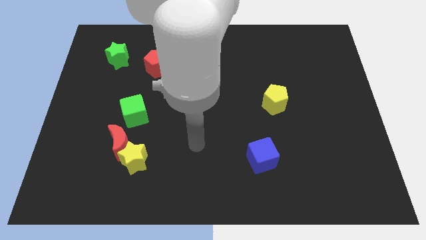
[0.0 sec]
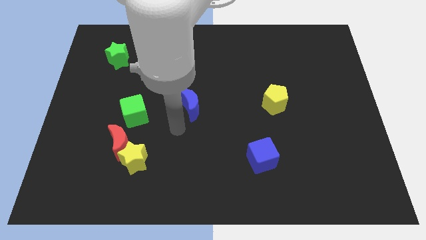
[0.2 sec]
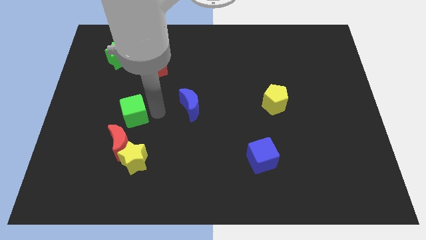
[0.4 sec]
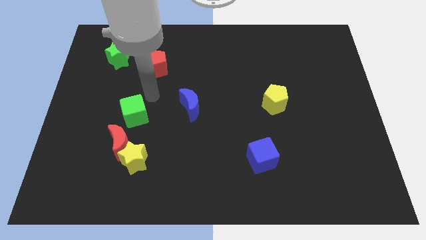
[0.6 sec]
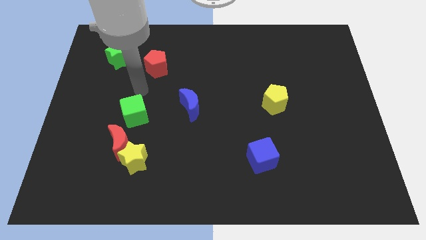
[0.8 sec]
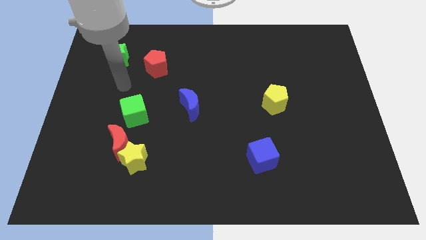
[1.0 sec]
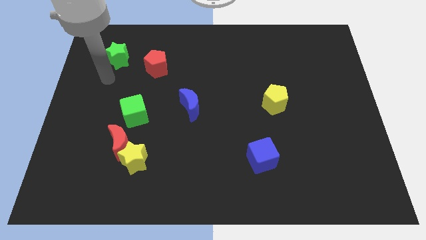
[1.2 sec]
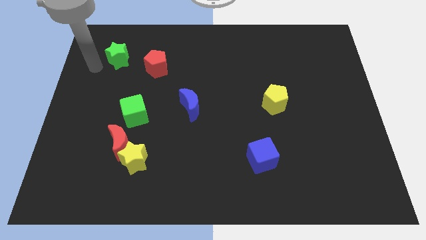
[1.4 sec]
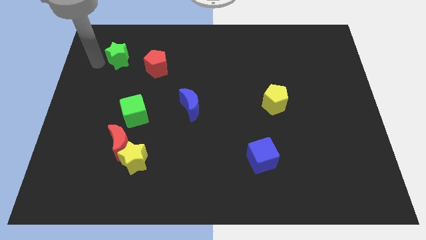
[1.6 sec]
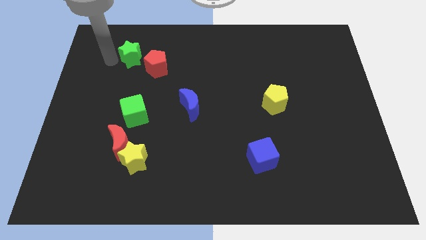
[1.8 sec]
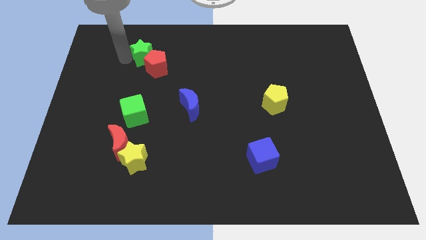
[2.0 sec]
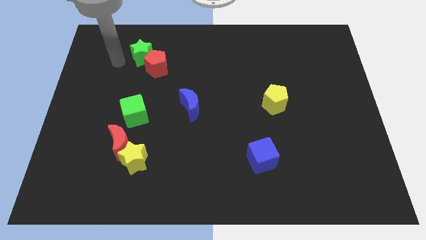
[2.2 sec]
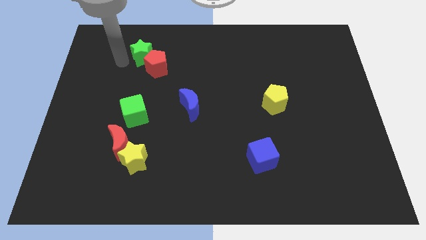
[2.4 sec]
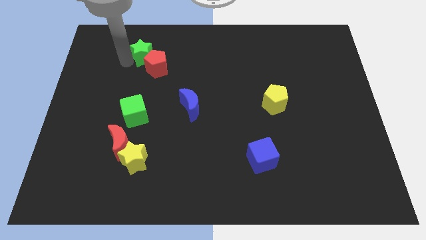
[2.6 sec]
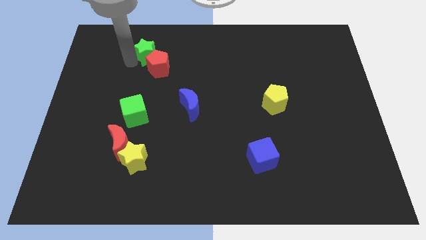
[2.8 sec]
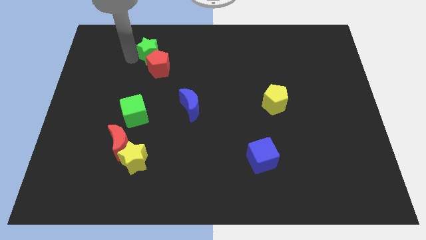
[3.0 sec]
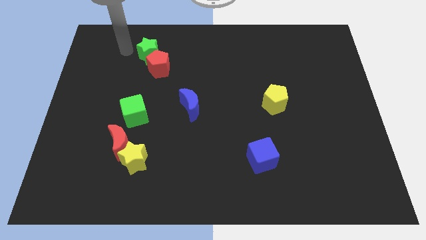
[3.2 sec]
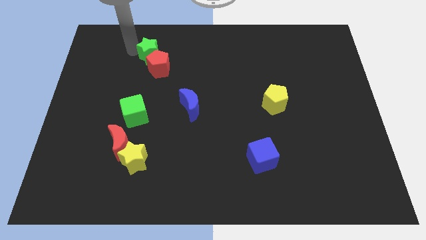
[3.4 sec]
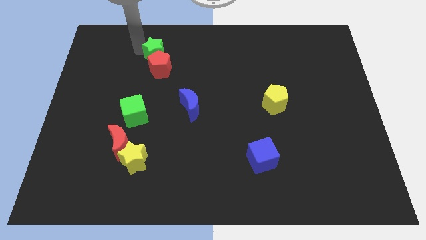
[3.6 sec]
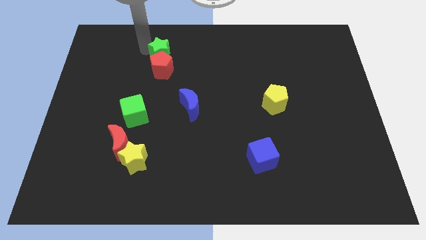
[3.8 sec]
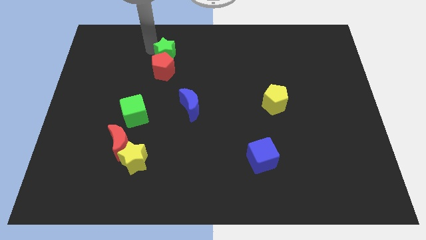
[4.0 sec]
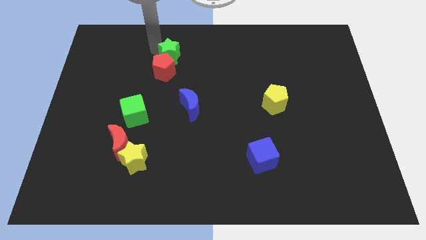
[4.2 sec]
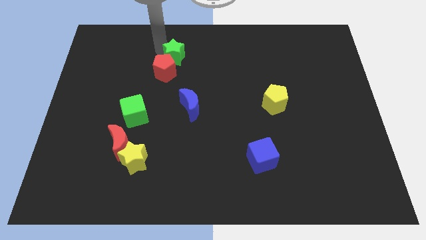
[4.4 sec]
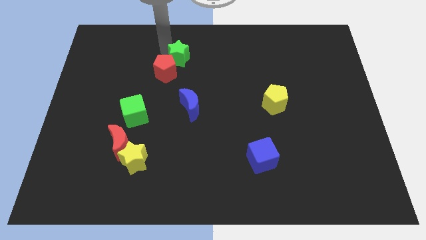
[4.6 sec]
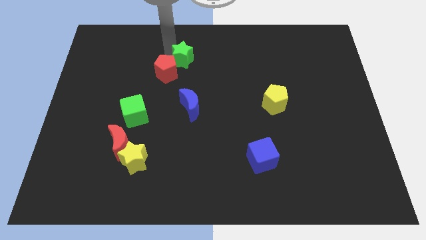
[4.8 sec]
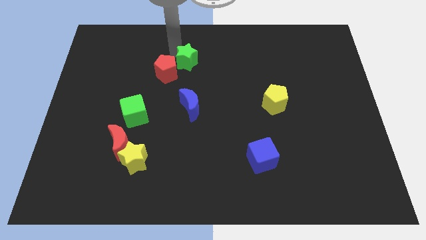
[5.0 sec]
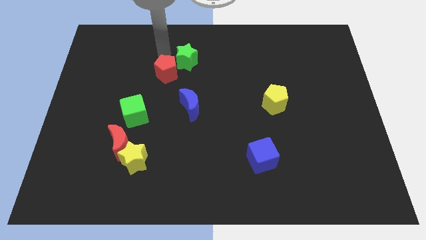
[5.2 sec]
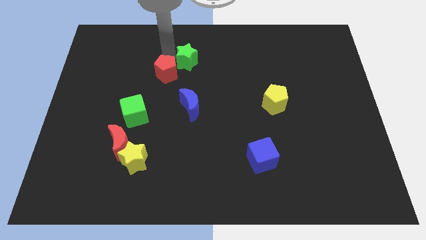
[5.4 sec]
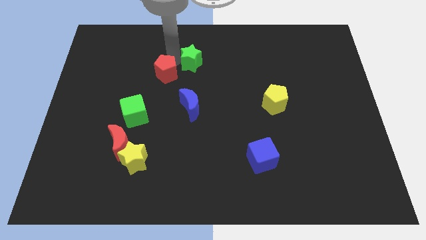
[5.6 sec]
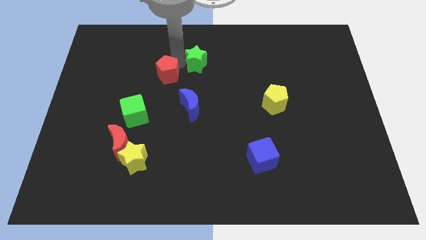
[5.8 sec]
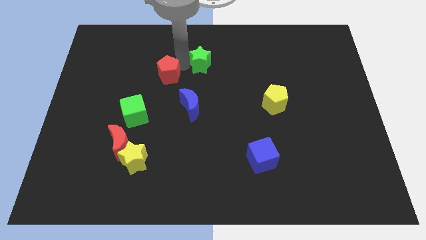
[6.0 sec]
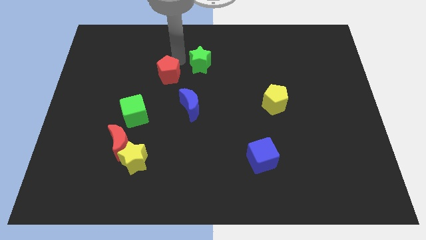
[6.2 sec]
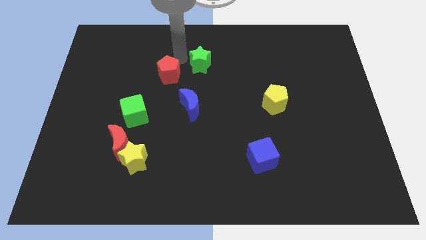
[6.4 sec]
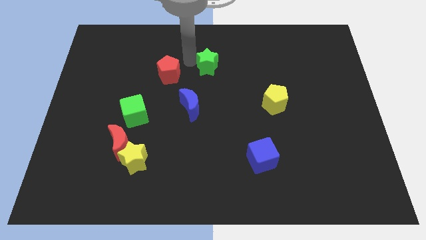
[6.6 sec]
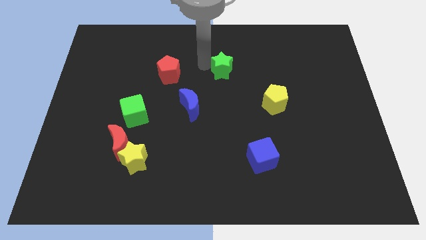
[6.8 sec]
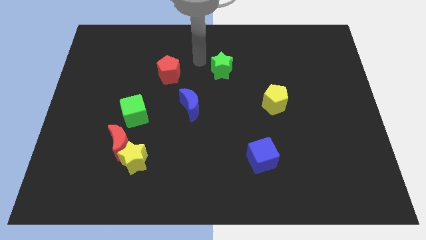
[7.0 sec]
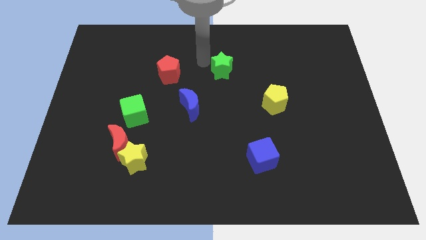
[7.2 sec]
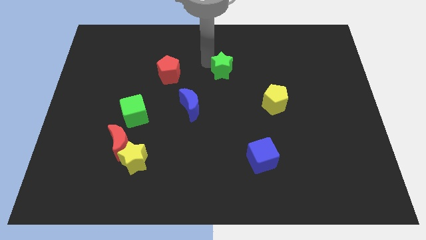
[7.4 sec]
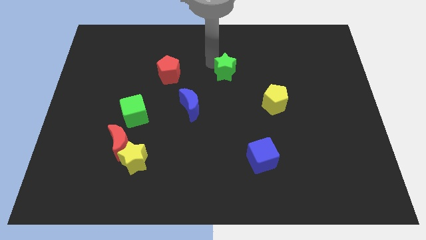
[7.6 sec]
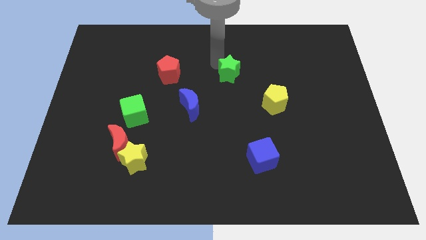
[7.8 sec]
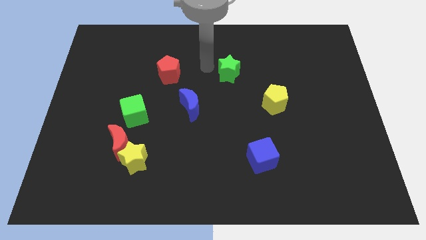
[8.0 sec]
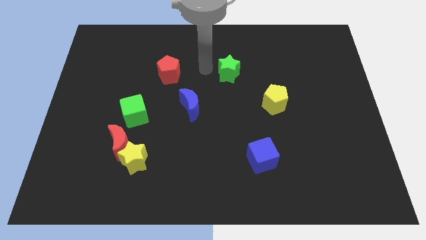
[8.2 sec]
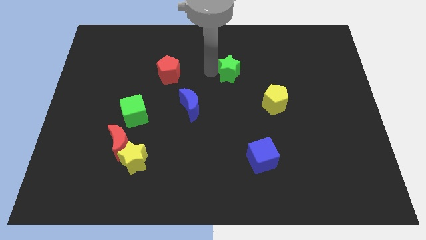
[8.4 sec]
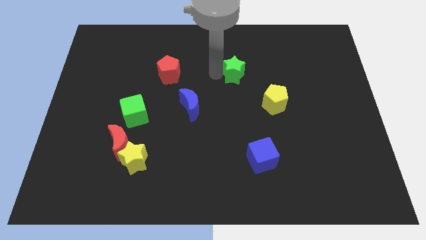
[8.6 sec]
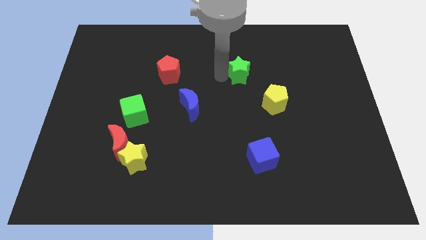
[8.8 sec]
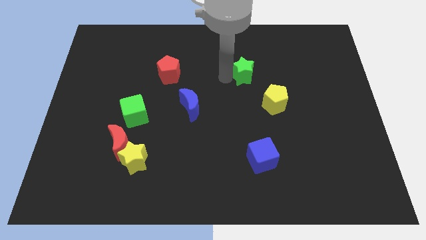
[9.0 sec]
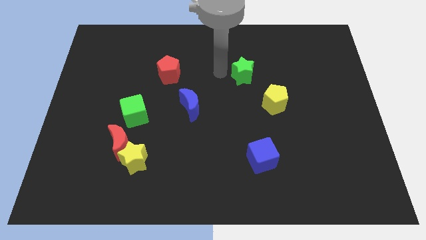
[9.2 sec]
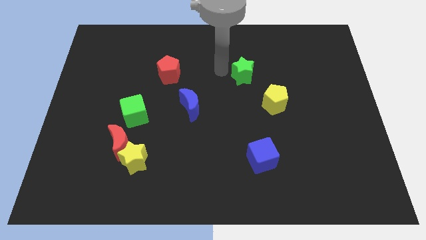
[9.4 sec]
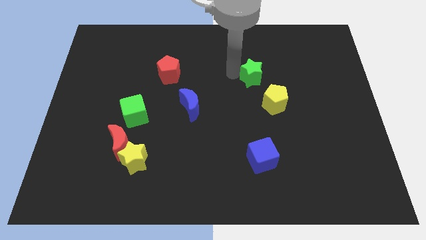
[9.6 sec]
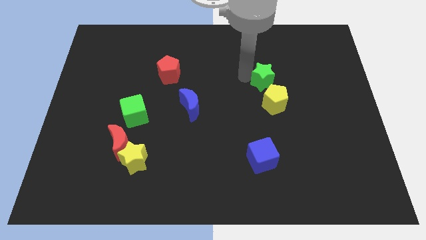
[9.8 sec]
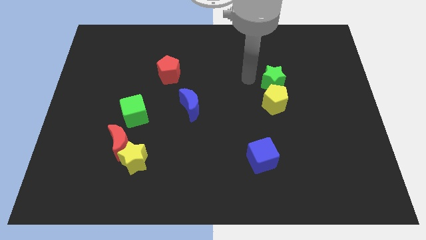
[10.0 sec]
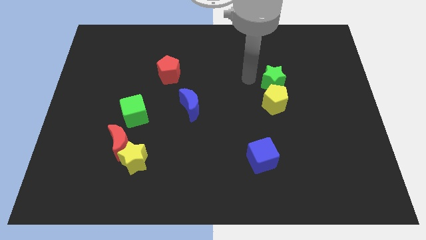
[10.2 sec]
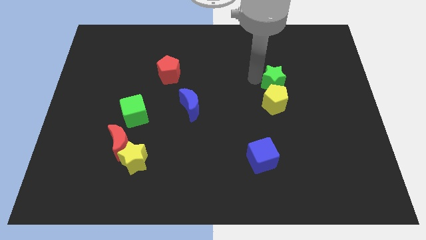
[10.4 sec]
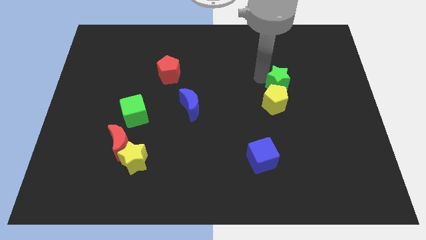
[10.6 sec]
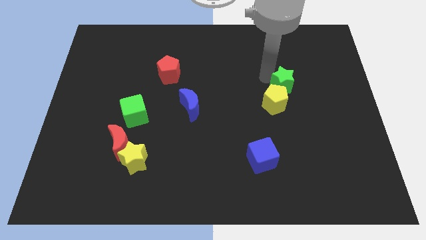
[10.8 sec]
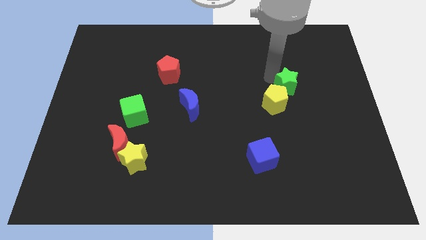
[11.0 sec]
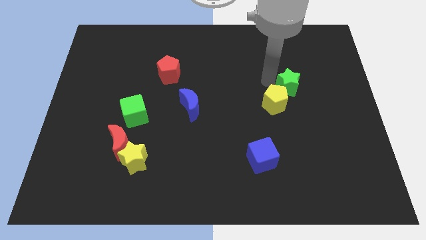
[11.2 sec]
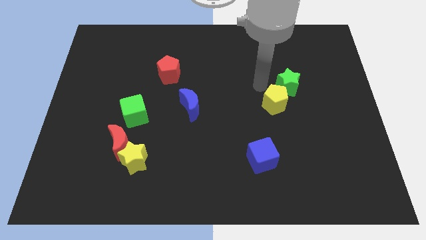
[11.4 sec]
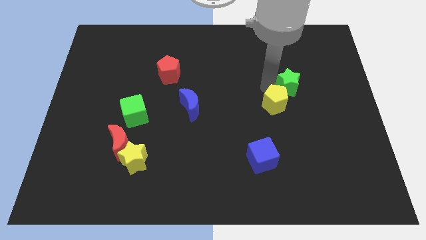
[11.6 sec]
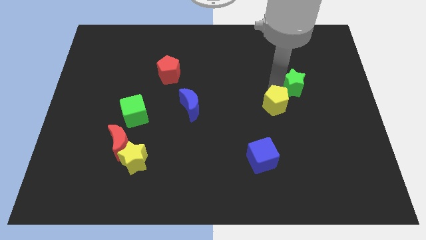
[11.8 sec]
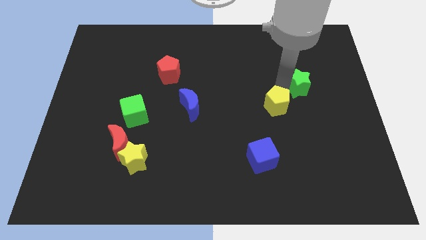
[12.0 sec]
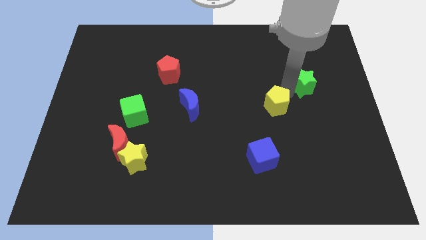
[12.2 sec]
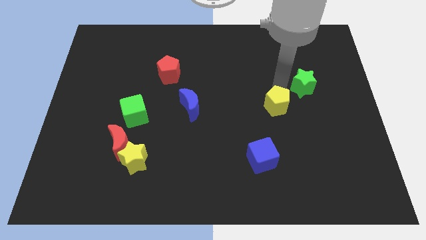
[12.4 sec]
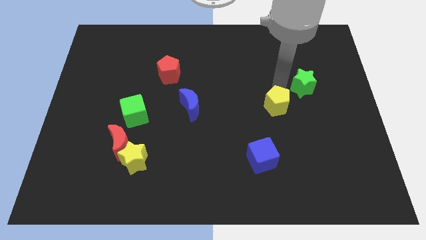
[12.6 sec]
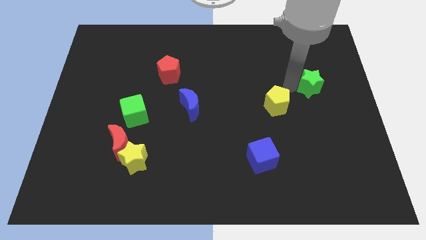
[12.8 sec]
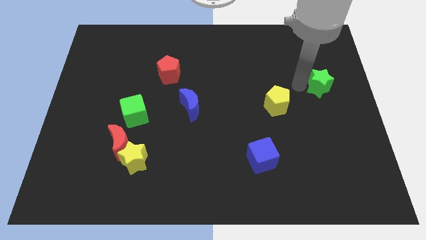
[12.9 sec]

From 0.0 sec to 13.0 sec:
slide the green star to the right side

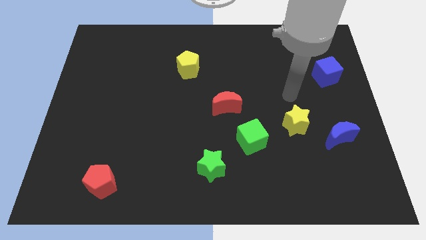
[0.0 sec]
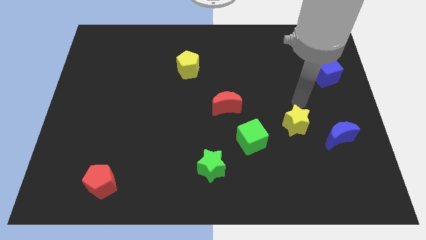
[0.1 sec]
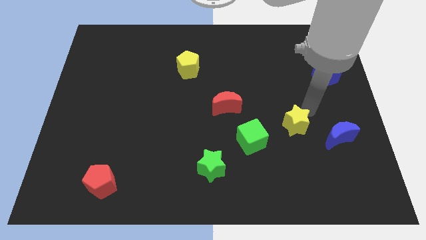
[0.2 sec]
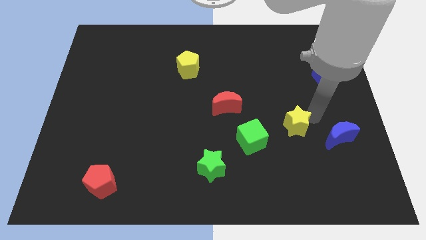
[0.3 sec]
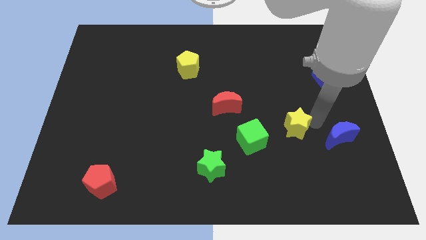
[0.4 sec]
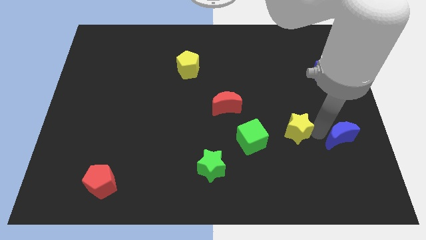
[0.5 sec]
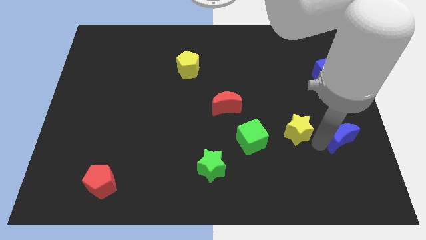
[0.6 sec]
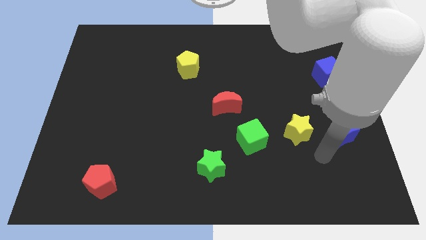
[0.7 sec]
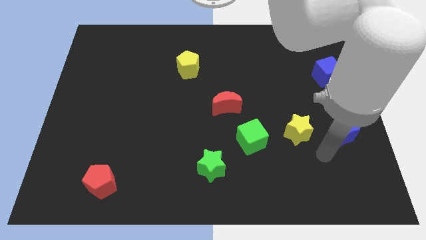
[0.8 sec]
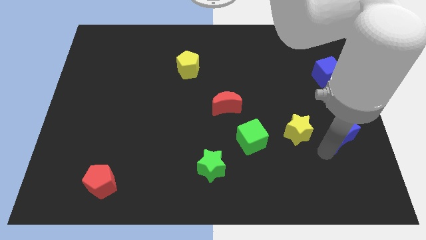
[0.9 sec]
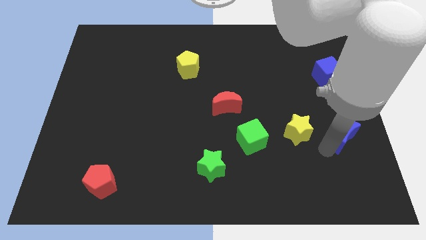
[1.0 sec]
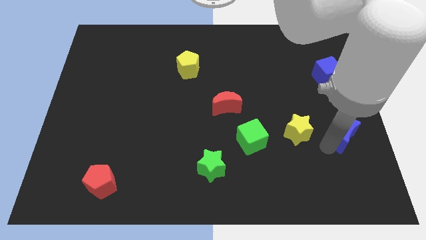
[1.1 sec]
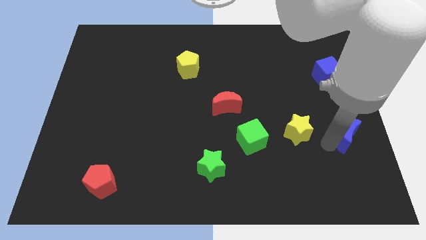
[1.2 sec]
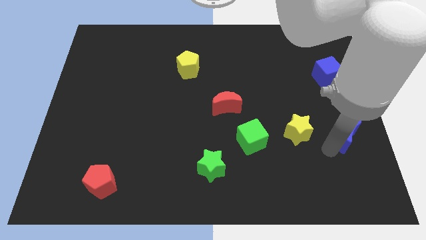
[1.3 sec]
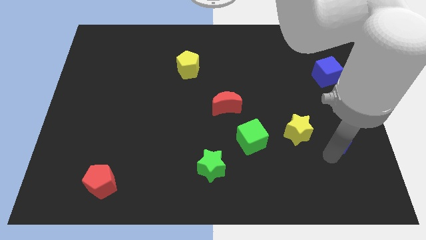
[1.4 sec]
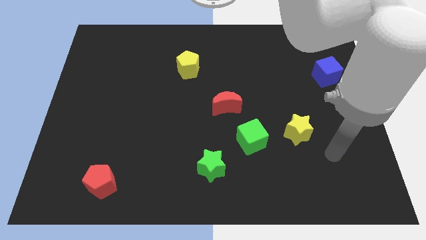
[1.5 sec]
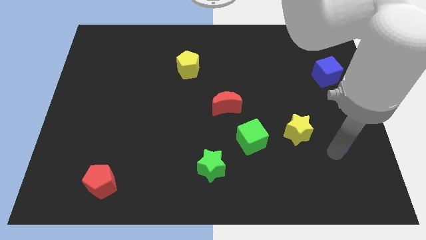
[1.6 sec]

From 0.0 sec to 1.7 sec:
push the blue moon to the right side of the board
